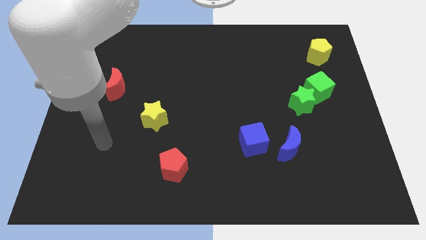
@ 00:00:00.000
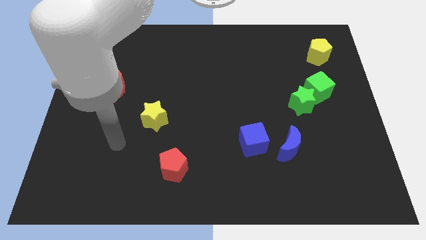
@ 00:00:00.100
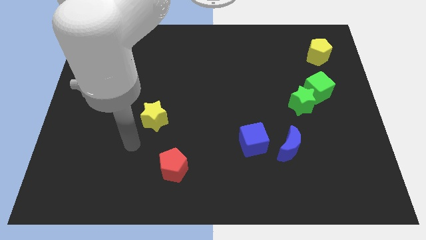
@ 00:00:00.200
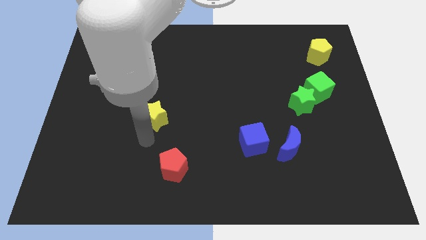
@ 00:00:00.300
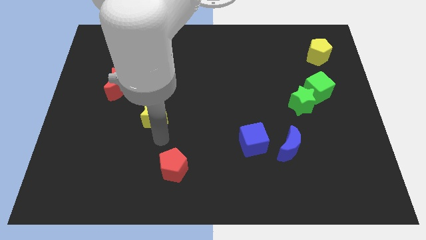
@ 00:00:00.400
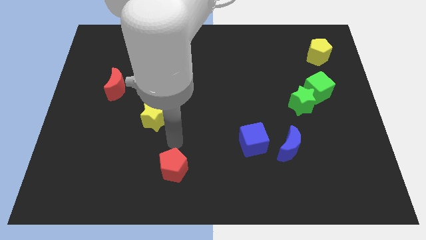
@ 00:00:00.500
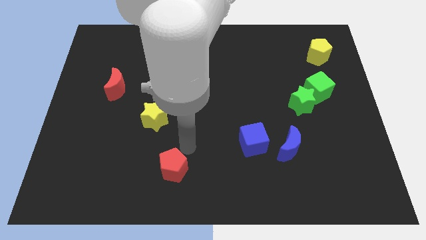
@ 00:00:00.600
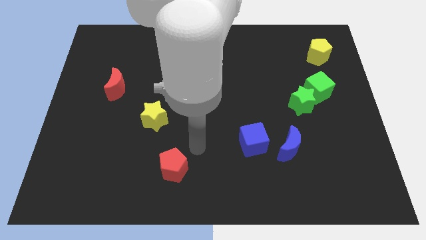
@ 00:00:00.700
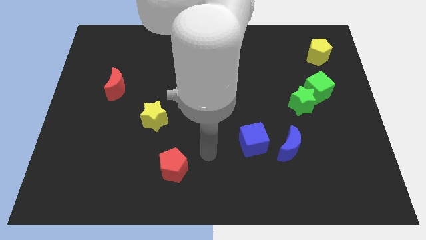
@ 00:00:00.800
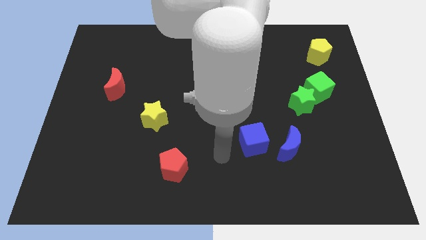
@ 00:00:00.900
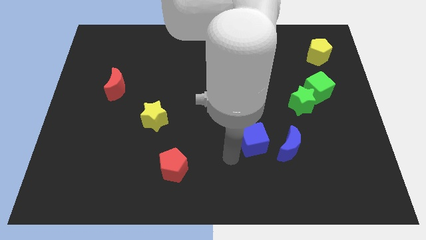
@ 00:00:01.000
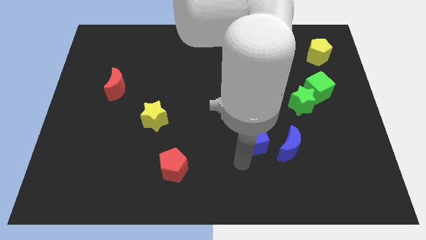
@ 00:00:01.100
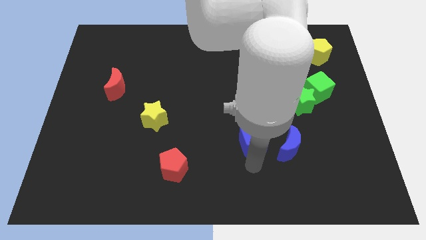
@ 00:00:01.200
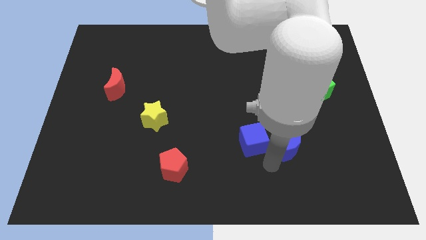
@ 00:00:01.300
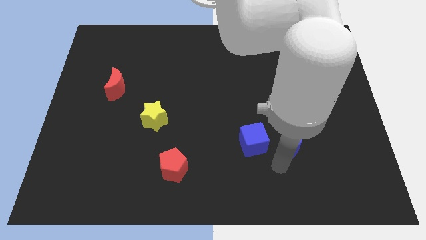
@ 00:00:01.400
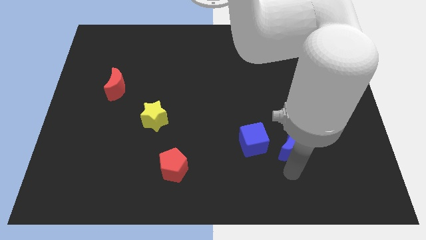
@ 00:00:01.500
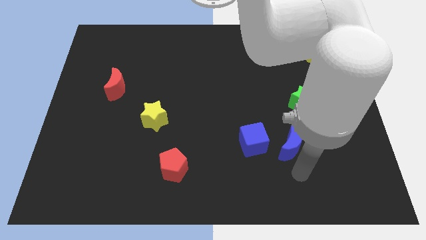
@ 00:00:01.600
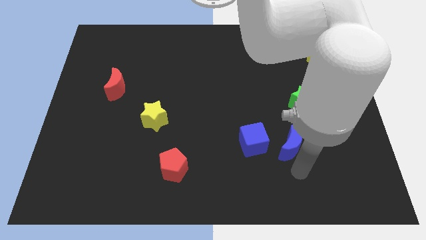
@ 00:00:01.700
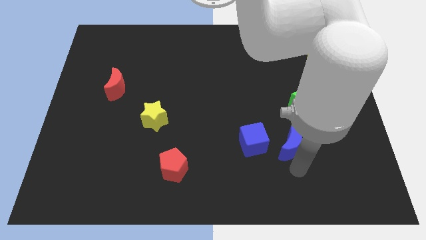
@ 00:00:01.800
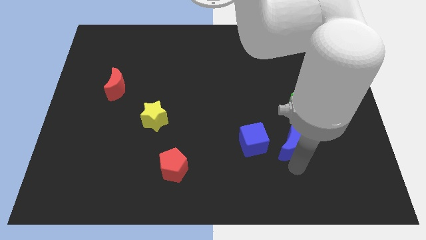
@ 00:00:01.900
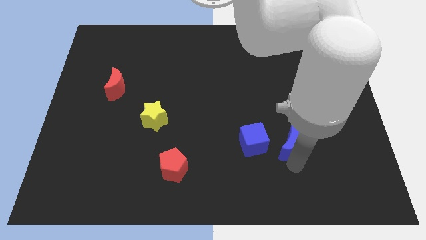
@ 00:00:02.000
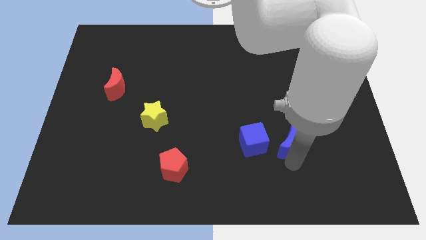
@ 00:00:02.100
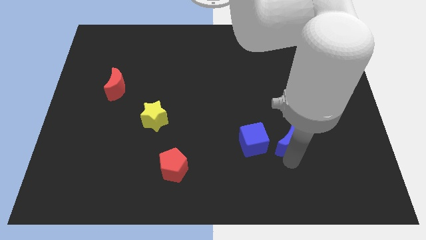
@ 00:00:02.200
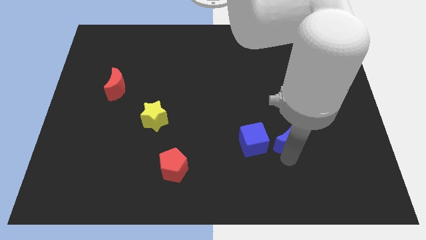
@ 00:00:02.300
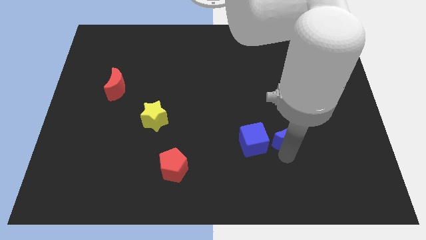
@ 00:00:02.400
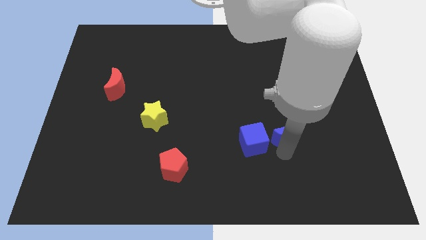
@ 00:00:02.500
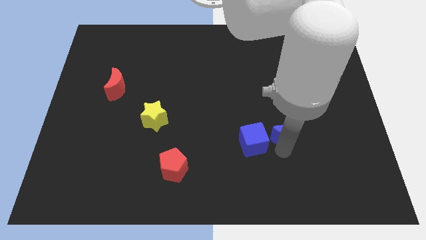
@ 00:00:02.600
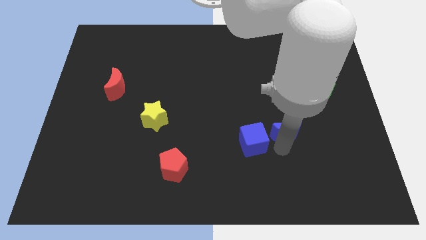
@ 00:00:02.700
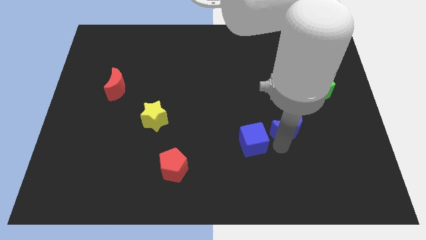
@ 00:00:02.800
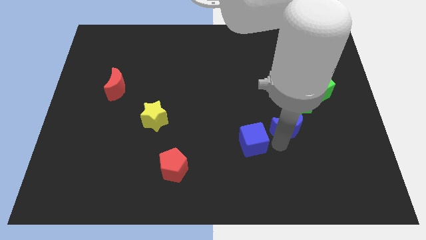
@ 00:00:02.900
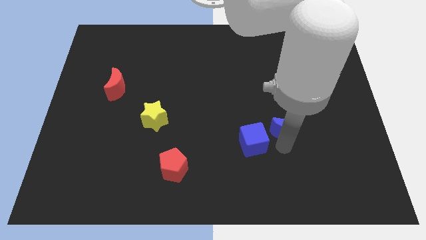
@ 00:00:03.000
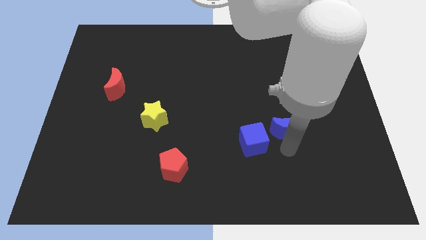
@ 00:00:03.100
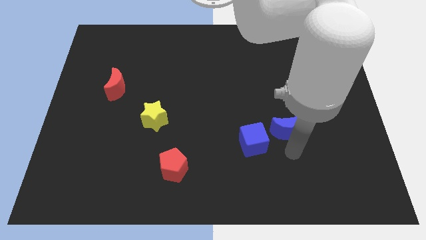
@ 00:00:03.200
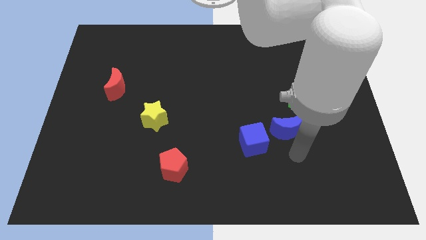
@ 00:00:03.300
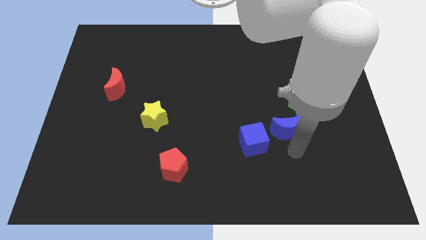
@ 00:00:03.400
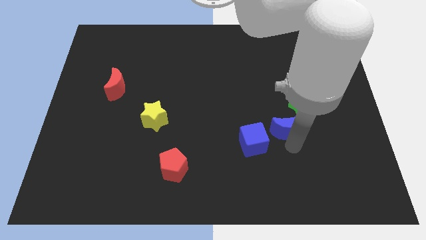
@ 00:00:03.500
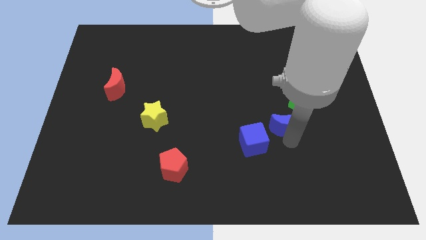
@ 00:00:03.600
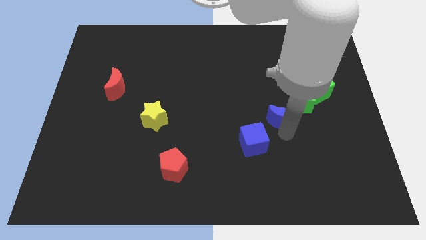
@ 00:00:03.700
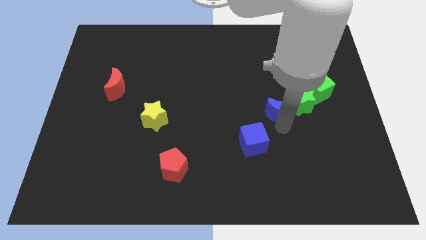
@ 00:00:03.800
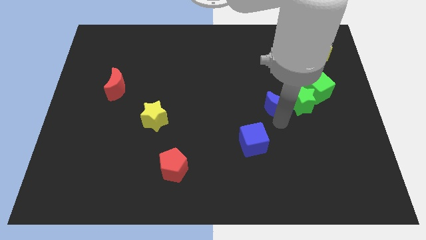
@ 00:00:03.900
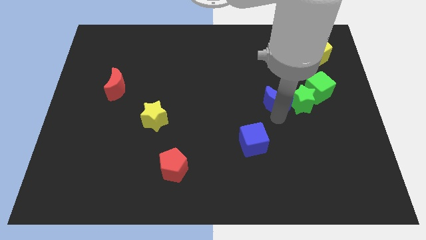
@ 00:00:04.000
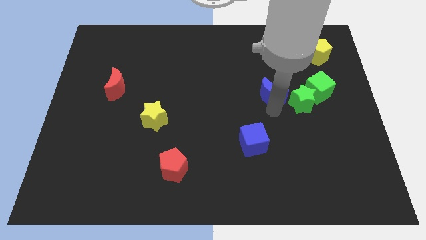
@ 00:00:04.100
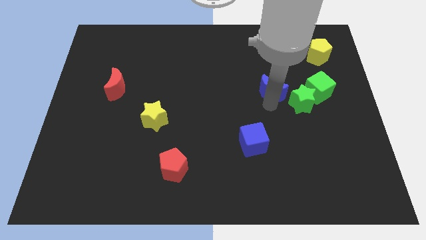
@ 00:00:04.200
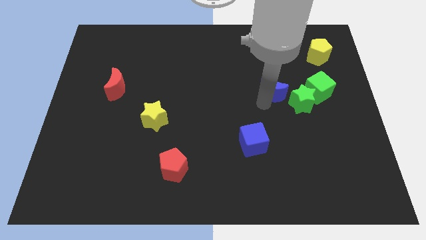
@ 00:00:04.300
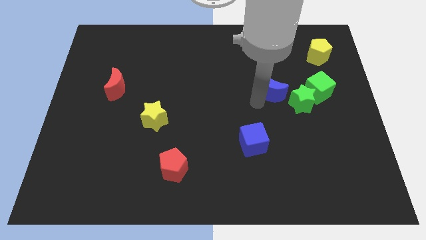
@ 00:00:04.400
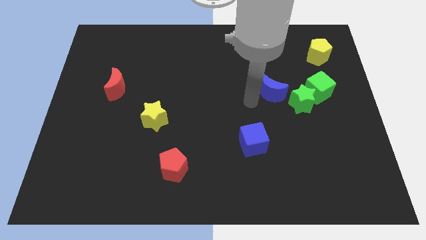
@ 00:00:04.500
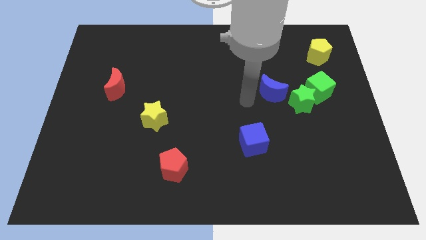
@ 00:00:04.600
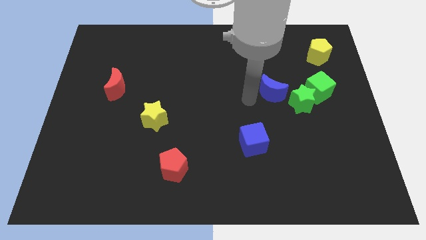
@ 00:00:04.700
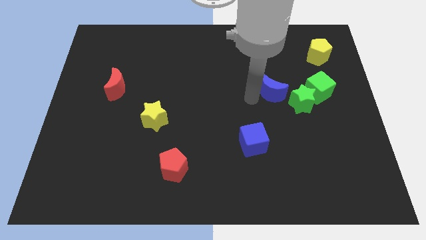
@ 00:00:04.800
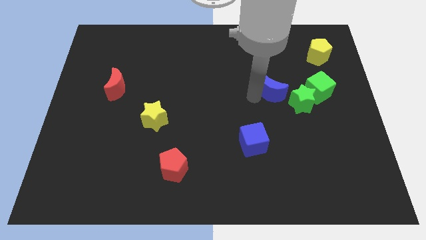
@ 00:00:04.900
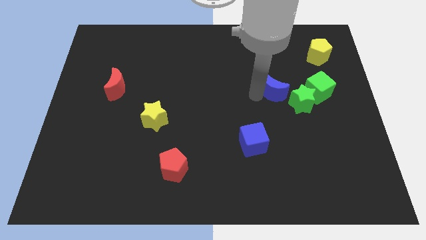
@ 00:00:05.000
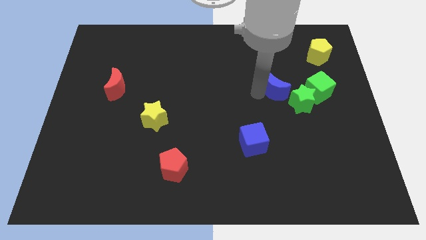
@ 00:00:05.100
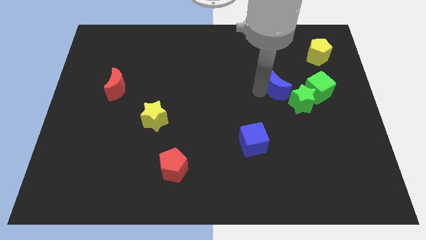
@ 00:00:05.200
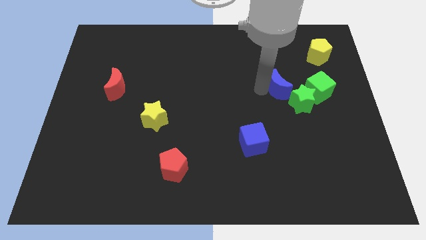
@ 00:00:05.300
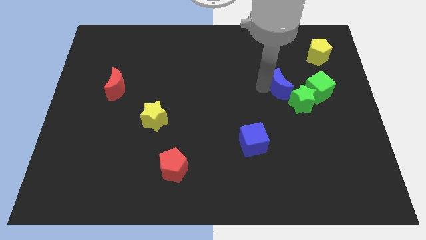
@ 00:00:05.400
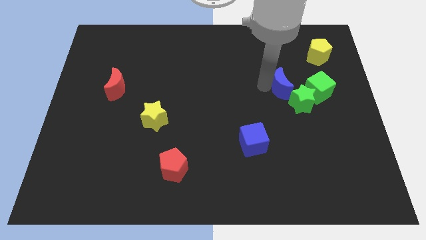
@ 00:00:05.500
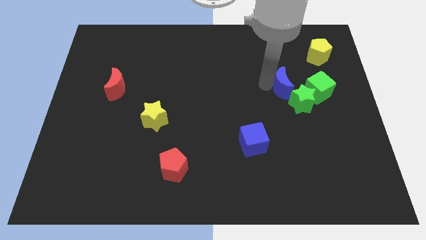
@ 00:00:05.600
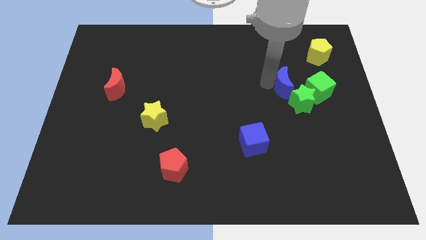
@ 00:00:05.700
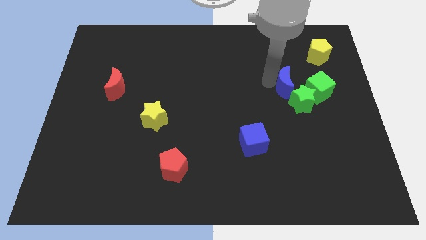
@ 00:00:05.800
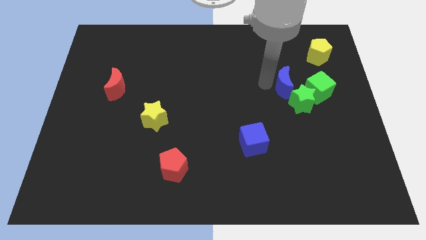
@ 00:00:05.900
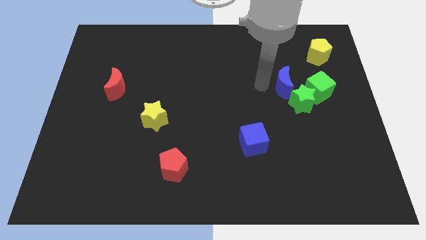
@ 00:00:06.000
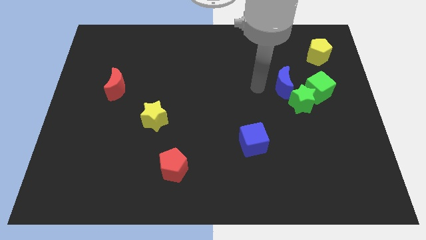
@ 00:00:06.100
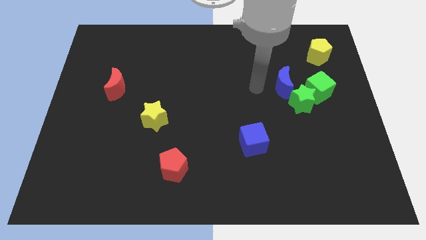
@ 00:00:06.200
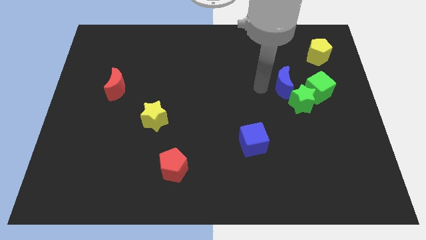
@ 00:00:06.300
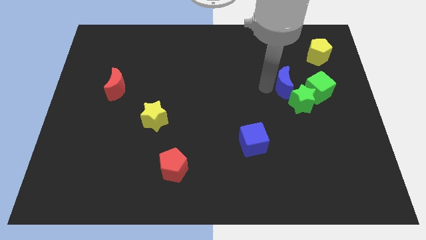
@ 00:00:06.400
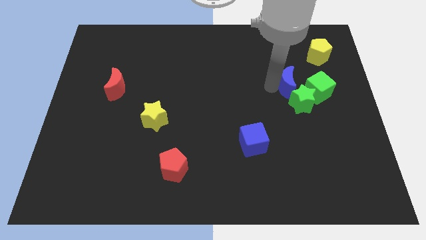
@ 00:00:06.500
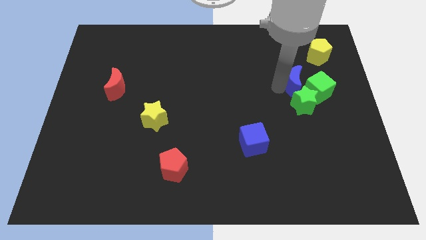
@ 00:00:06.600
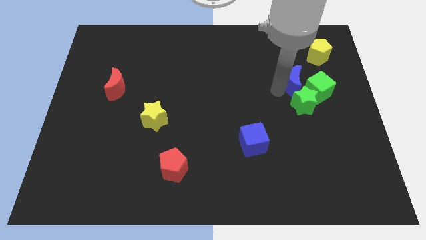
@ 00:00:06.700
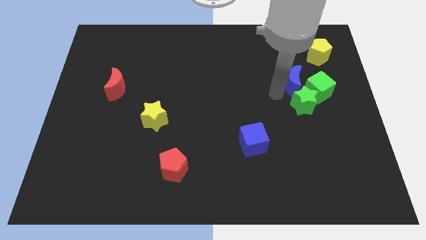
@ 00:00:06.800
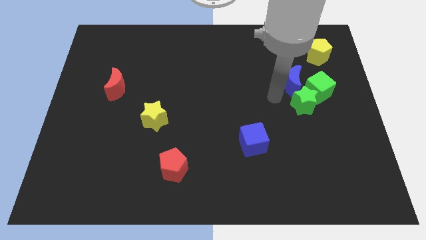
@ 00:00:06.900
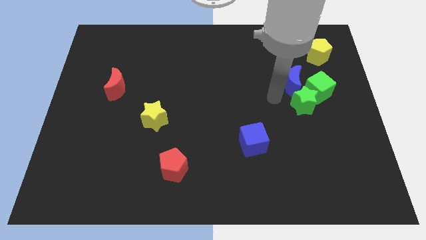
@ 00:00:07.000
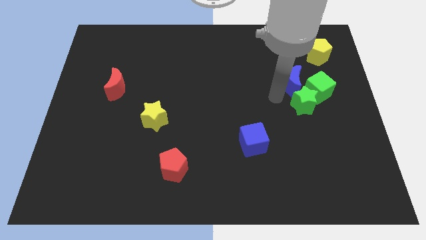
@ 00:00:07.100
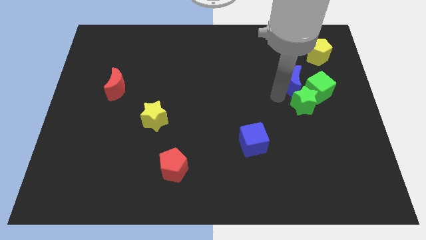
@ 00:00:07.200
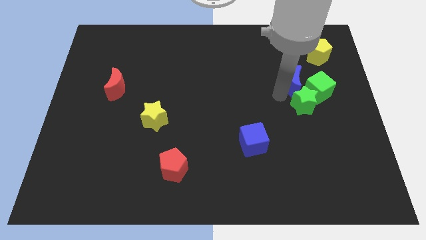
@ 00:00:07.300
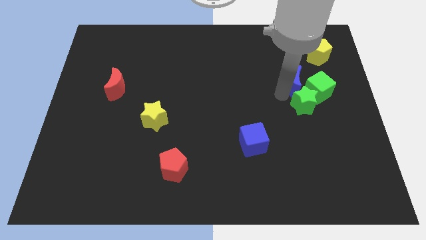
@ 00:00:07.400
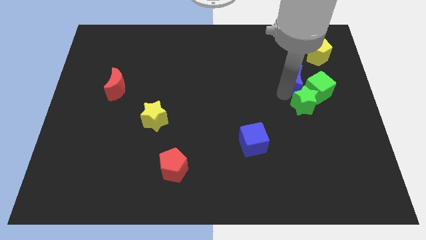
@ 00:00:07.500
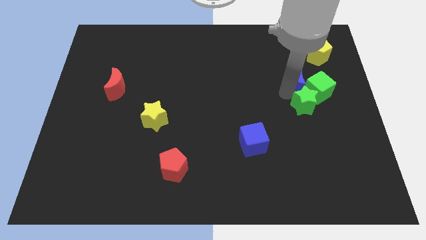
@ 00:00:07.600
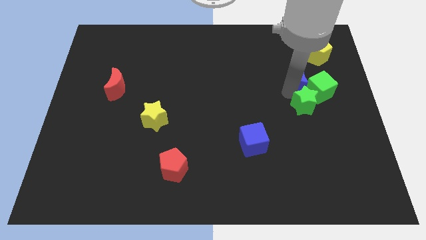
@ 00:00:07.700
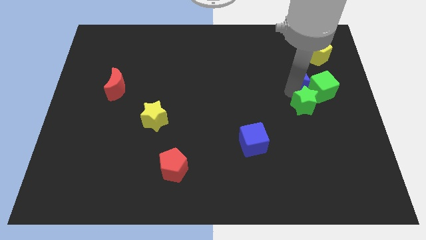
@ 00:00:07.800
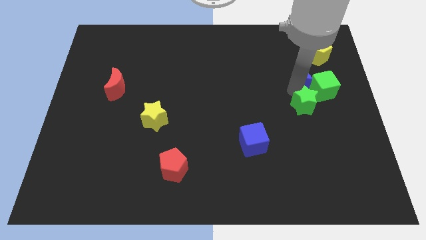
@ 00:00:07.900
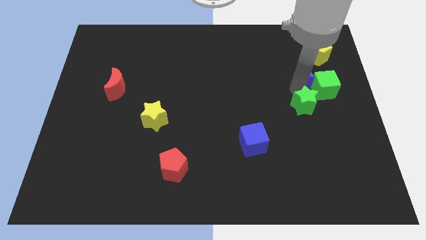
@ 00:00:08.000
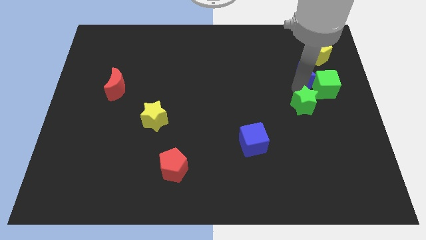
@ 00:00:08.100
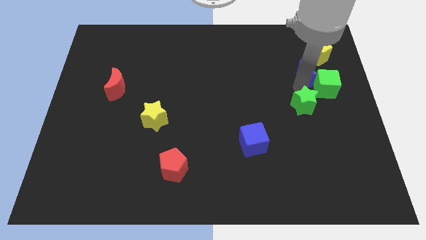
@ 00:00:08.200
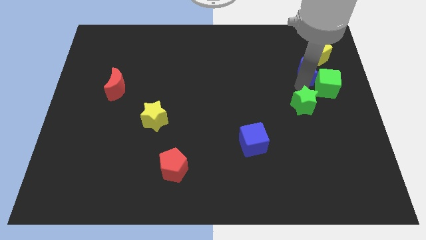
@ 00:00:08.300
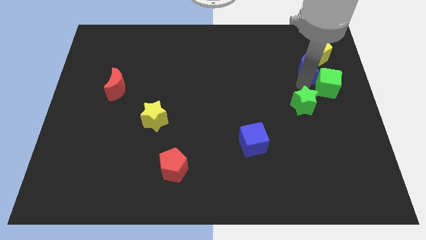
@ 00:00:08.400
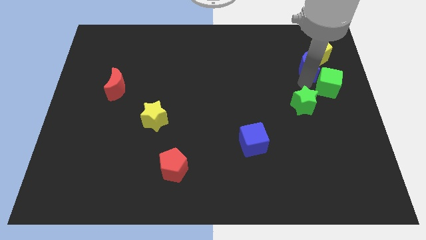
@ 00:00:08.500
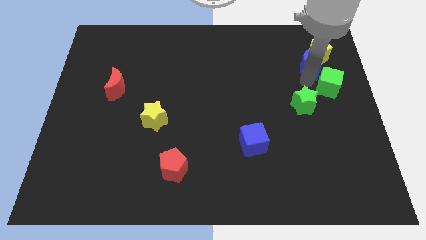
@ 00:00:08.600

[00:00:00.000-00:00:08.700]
slide the blue moon next to the yellow pentagon
